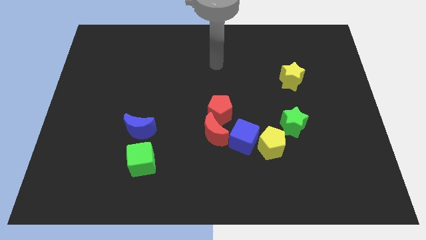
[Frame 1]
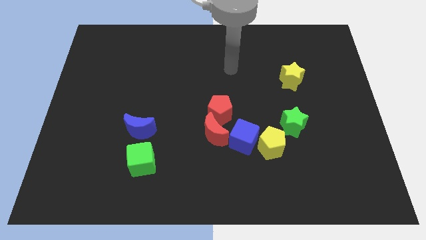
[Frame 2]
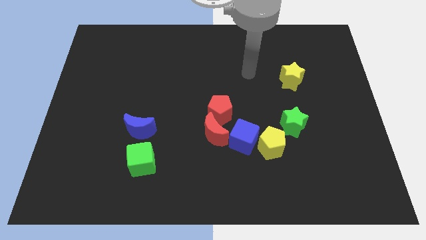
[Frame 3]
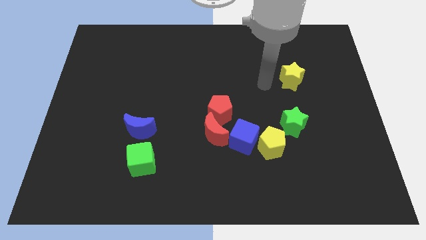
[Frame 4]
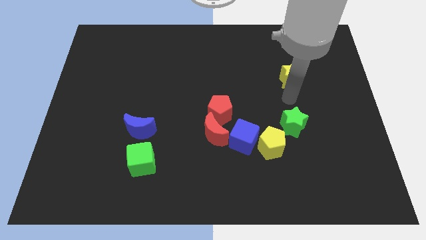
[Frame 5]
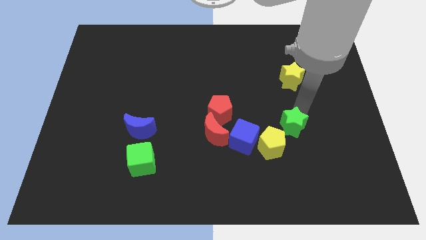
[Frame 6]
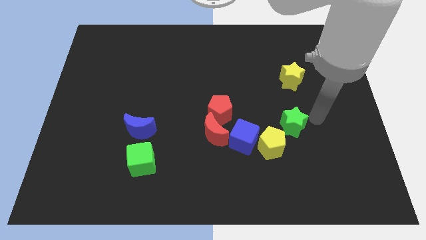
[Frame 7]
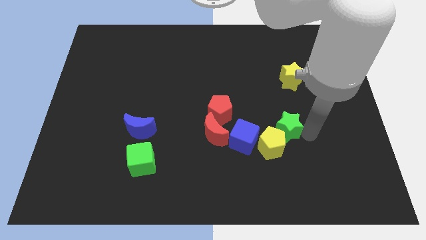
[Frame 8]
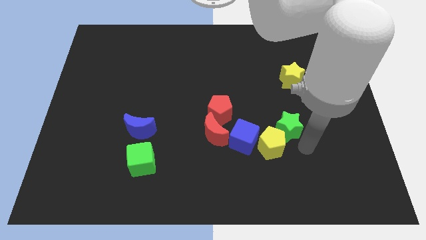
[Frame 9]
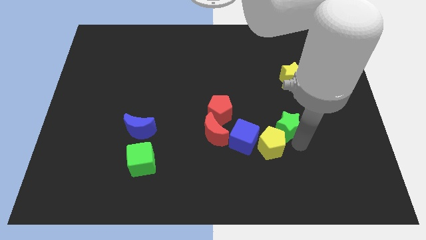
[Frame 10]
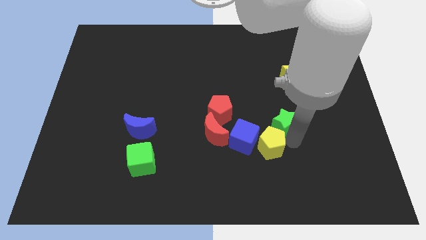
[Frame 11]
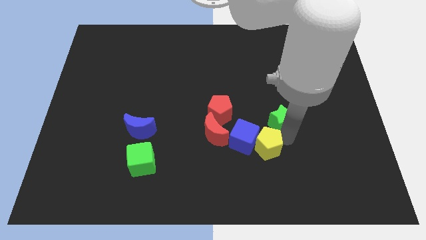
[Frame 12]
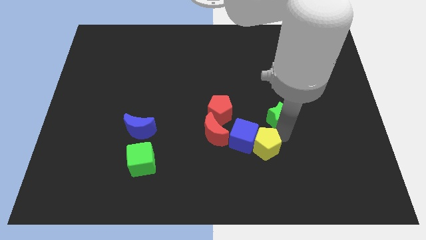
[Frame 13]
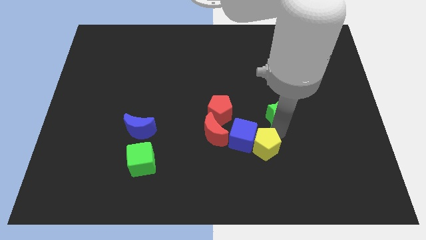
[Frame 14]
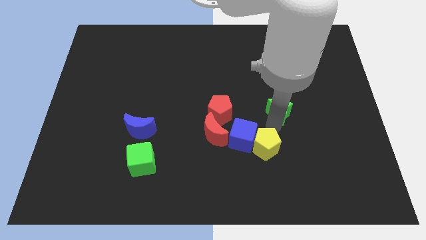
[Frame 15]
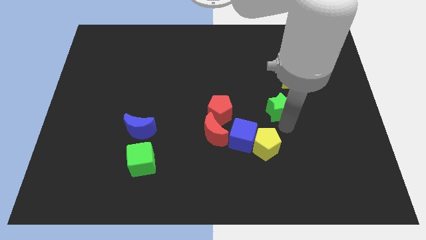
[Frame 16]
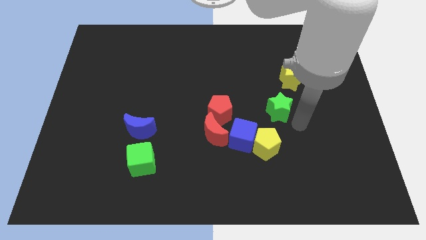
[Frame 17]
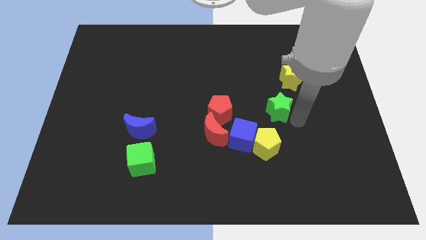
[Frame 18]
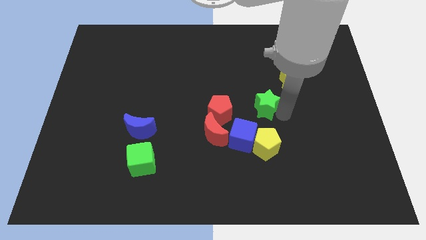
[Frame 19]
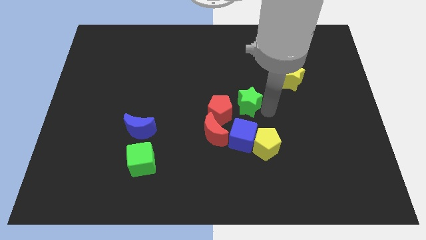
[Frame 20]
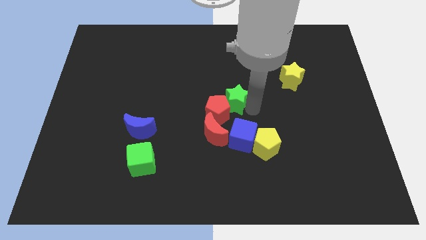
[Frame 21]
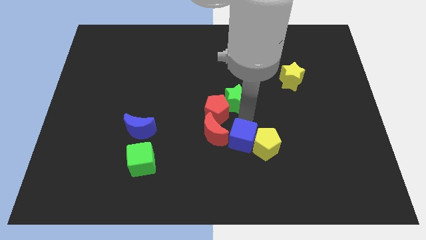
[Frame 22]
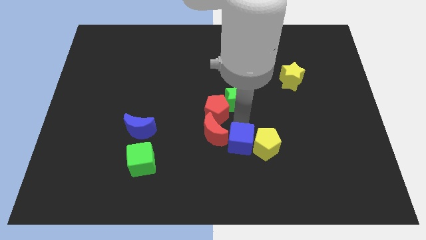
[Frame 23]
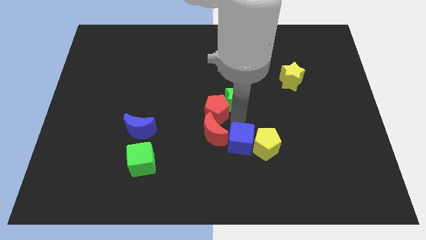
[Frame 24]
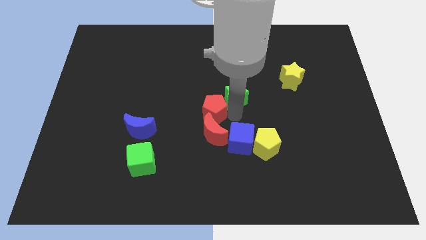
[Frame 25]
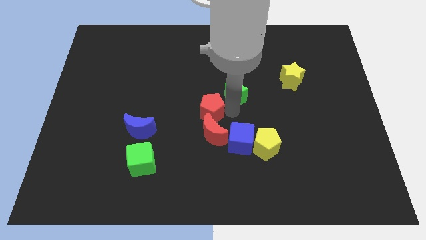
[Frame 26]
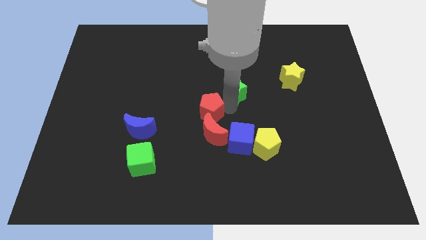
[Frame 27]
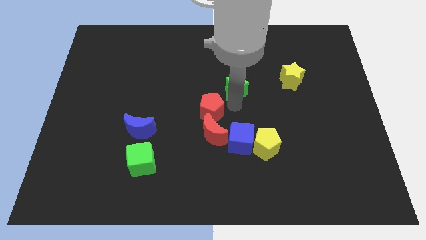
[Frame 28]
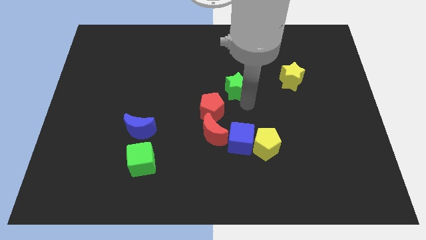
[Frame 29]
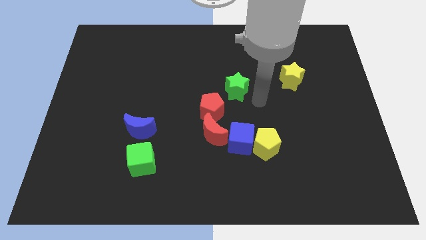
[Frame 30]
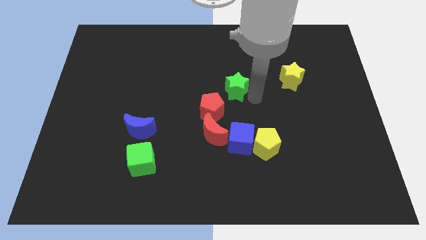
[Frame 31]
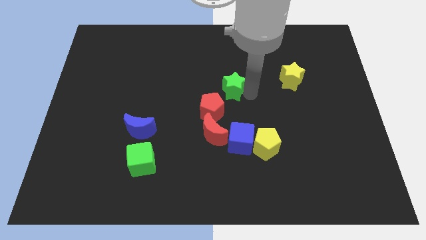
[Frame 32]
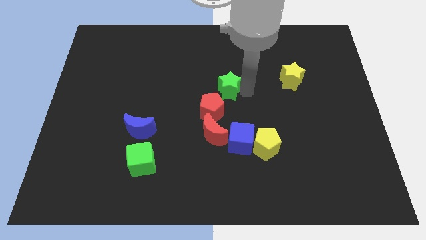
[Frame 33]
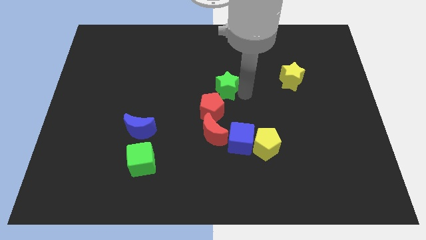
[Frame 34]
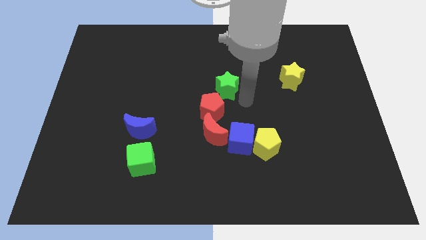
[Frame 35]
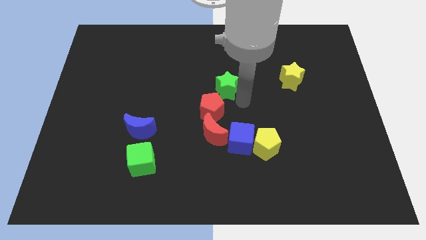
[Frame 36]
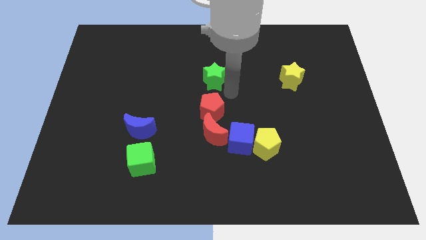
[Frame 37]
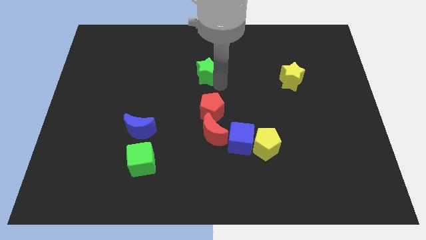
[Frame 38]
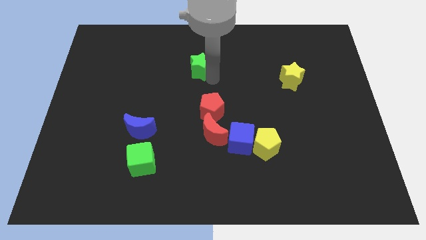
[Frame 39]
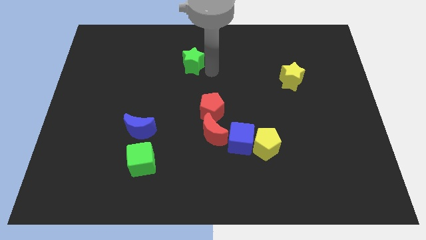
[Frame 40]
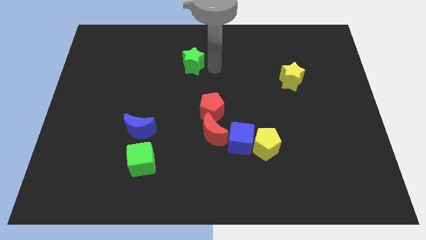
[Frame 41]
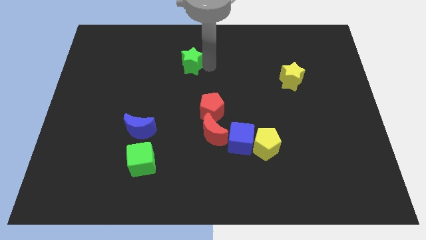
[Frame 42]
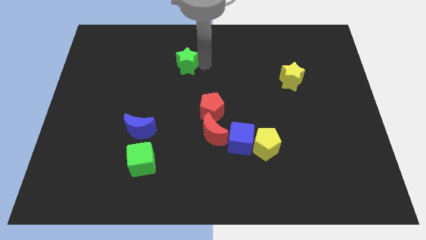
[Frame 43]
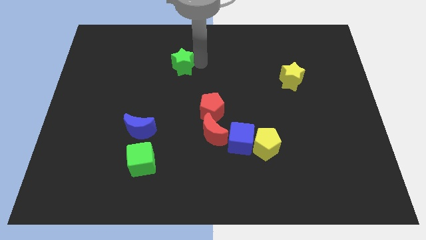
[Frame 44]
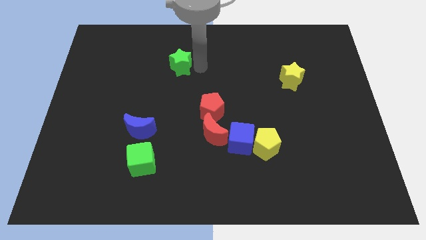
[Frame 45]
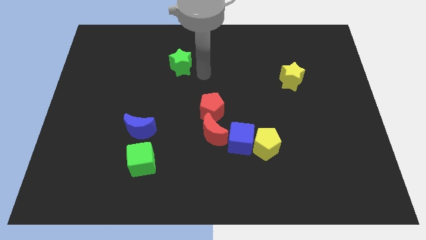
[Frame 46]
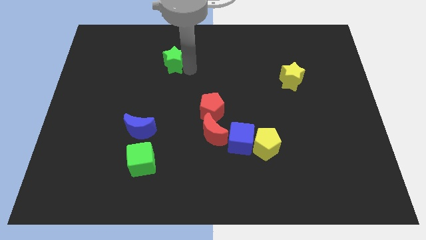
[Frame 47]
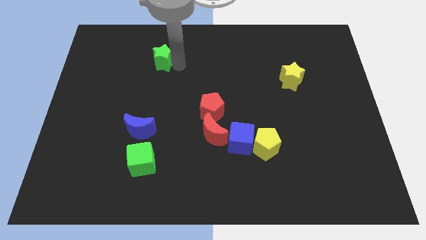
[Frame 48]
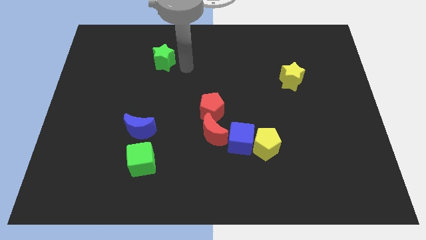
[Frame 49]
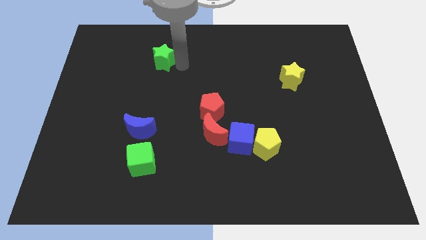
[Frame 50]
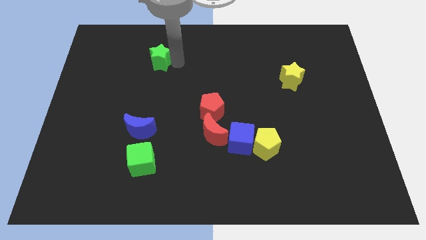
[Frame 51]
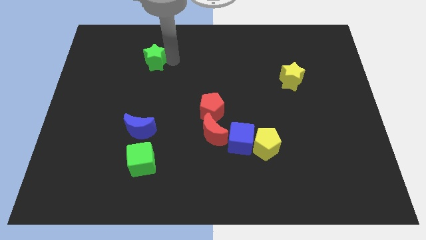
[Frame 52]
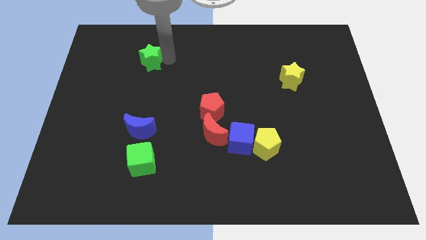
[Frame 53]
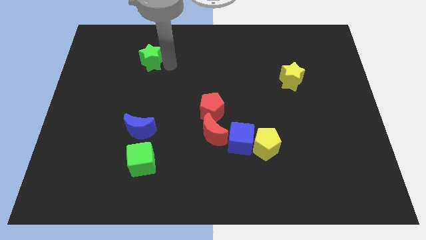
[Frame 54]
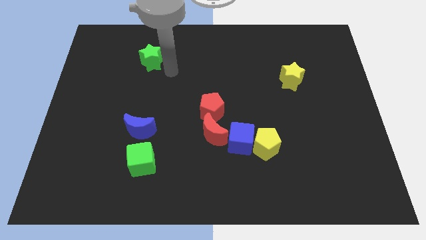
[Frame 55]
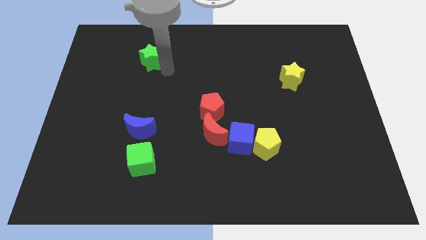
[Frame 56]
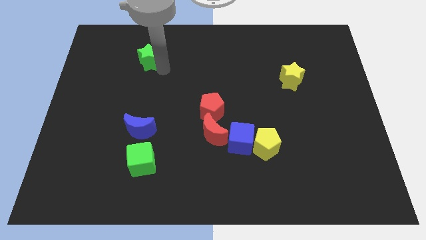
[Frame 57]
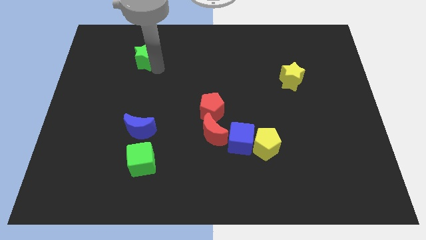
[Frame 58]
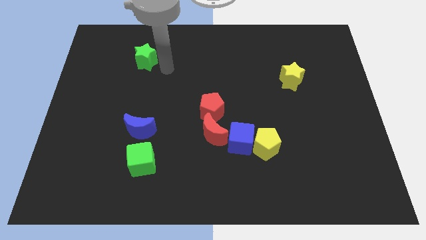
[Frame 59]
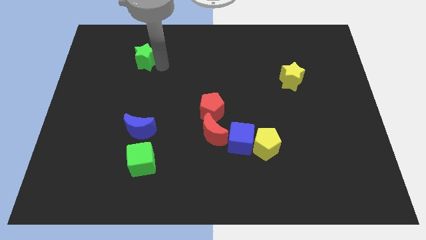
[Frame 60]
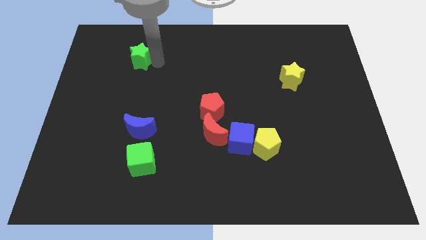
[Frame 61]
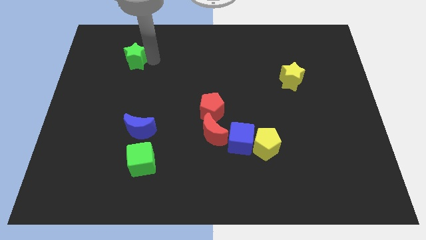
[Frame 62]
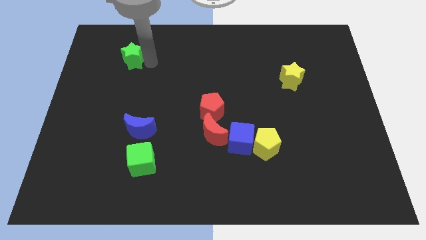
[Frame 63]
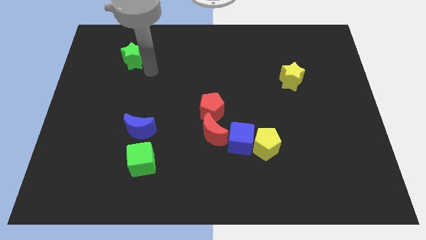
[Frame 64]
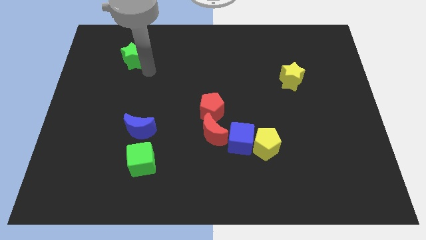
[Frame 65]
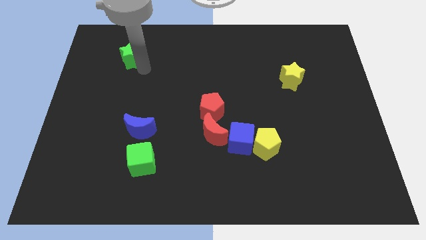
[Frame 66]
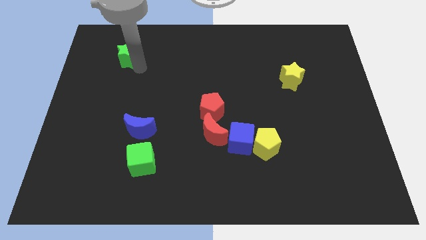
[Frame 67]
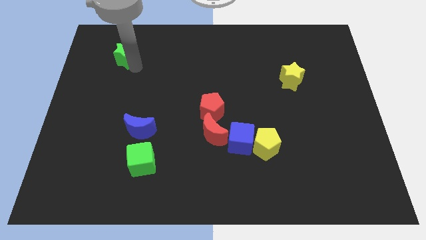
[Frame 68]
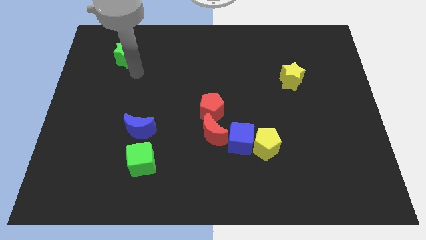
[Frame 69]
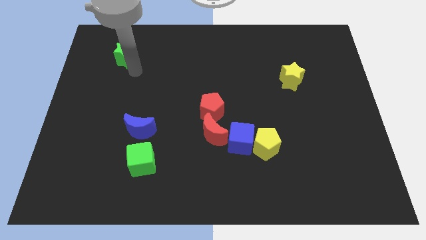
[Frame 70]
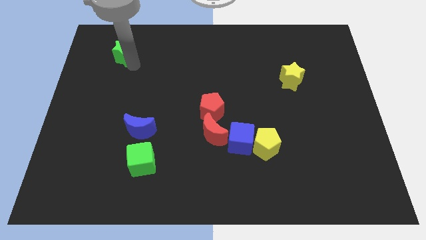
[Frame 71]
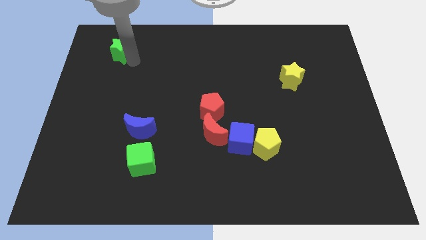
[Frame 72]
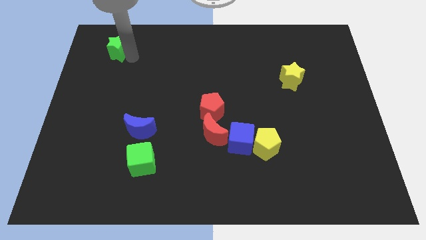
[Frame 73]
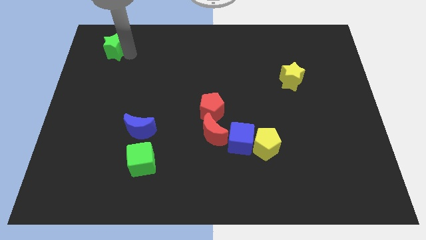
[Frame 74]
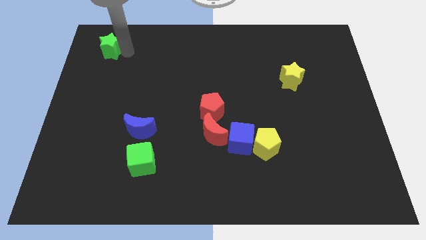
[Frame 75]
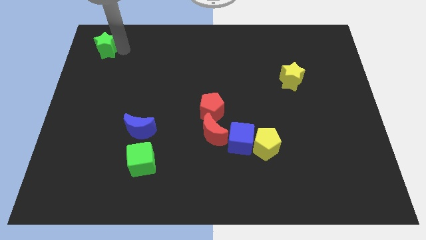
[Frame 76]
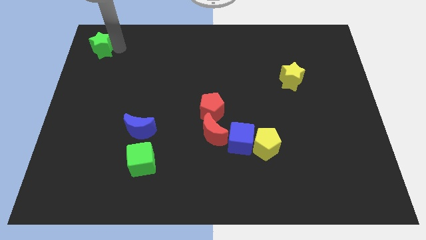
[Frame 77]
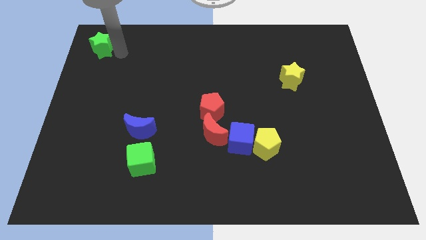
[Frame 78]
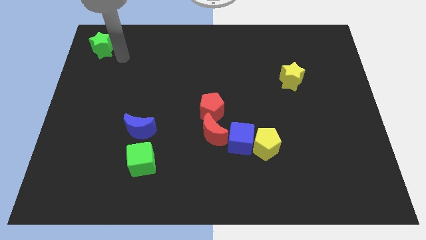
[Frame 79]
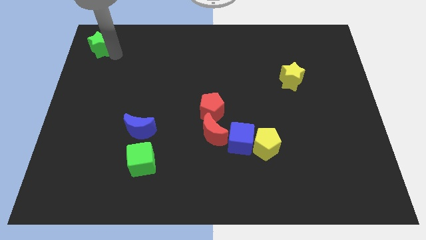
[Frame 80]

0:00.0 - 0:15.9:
push the green star to the top left corner
